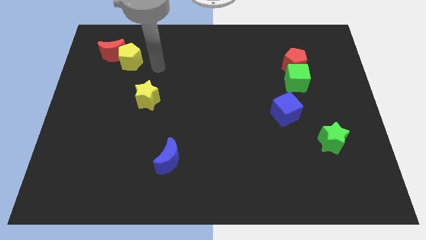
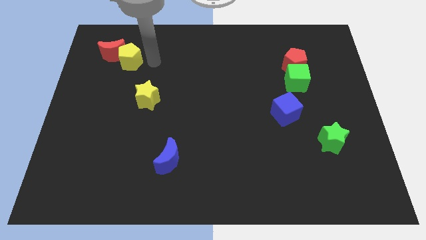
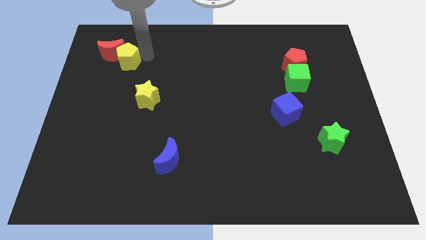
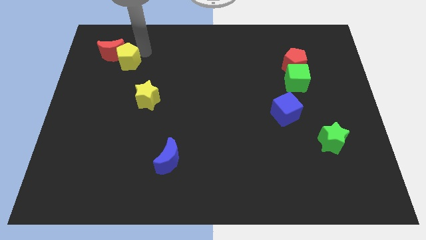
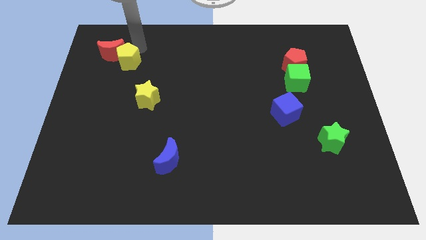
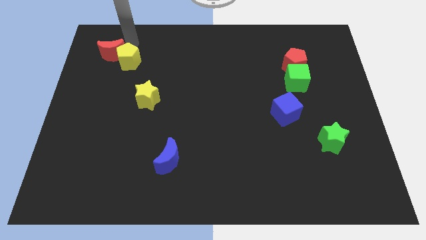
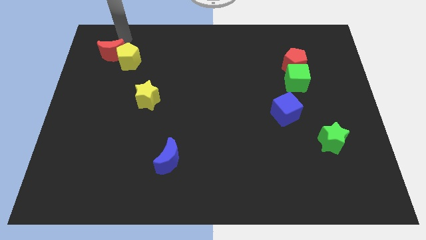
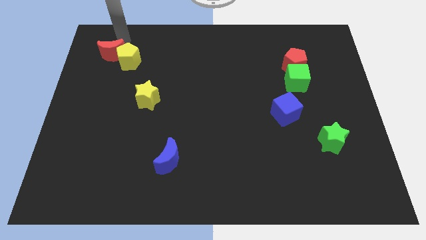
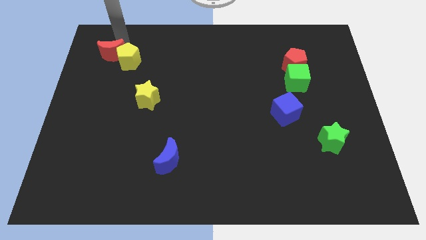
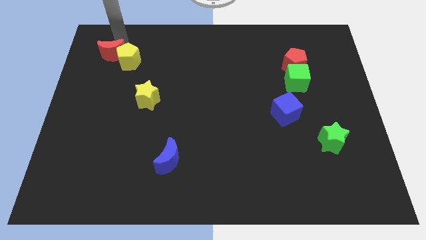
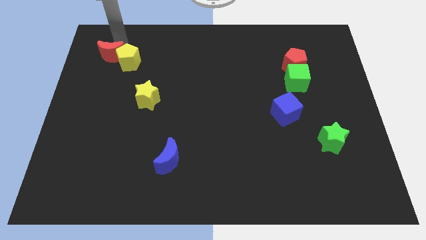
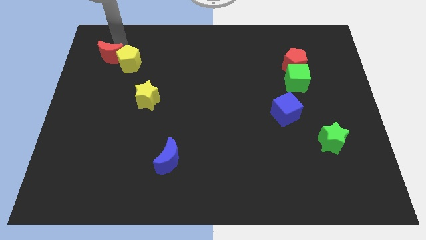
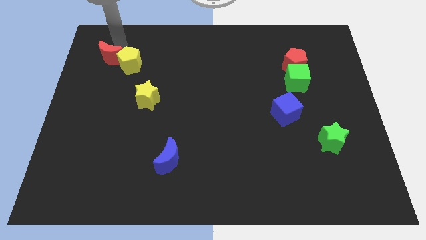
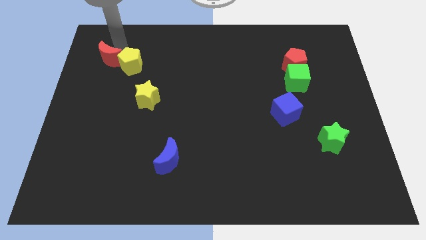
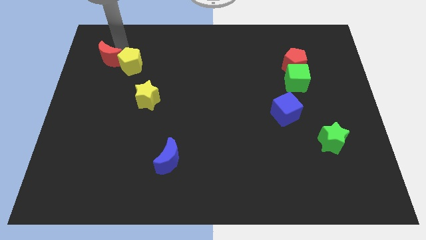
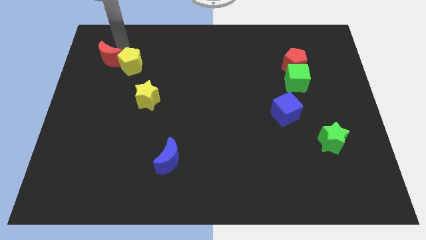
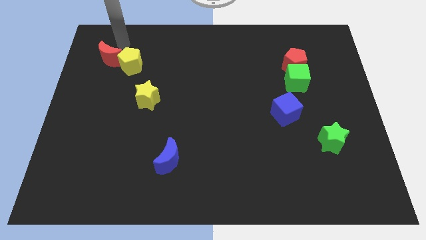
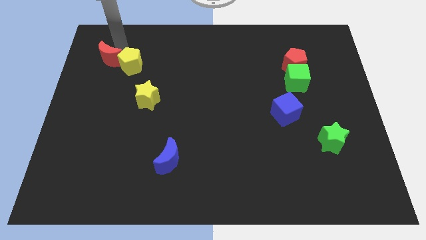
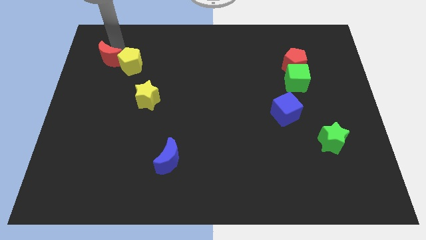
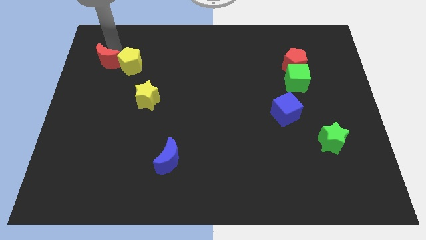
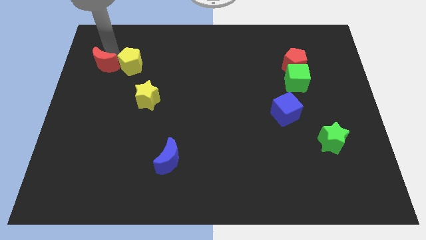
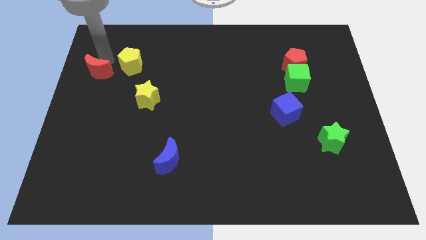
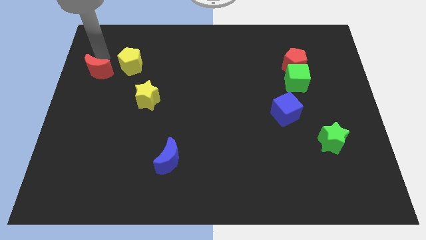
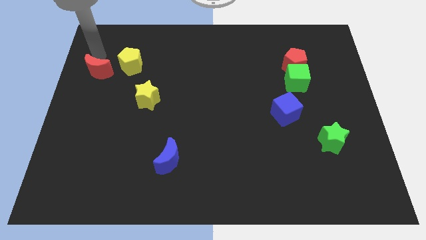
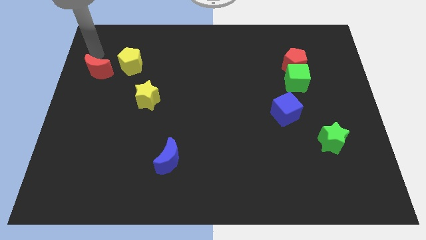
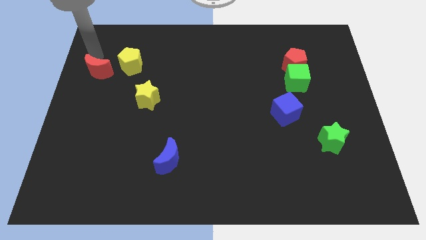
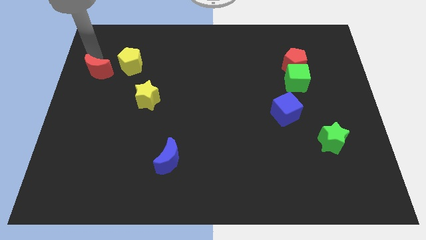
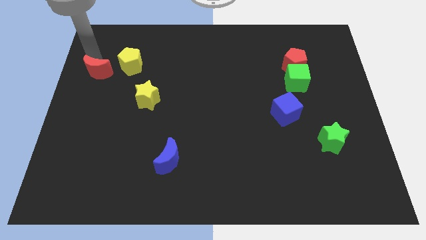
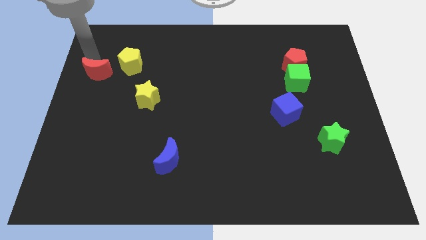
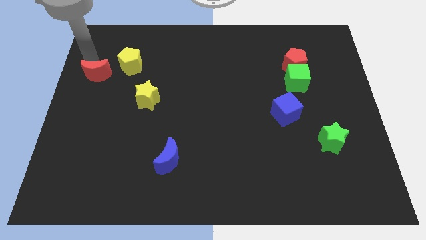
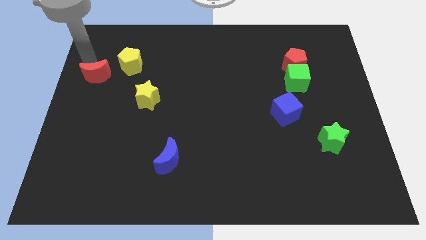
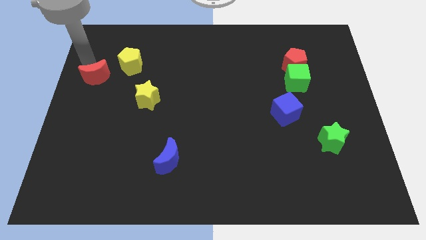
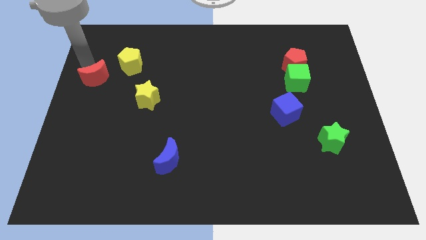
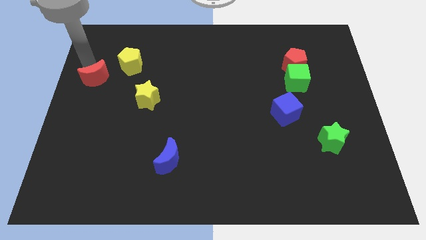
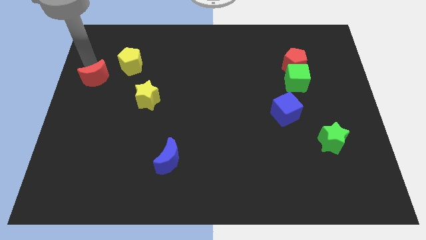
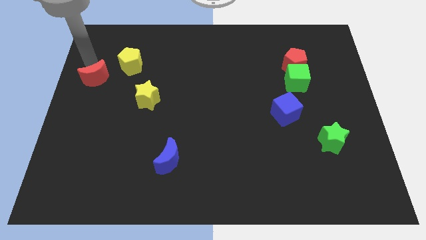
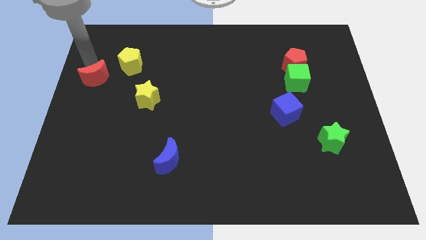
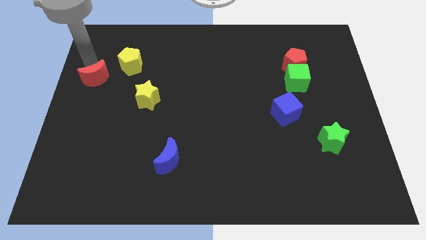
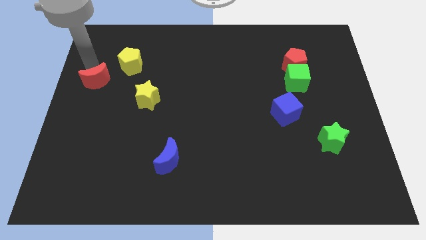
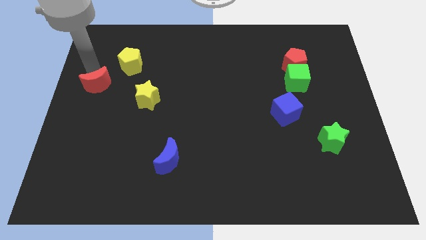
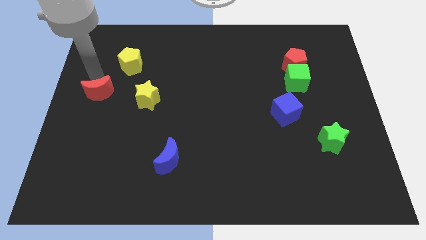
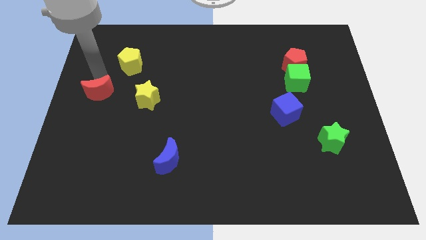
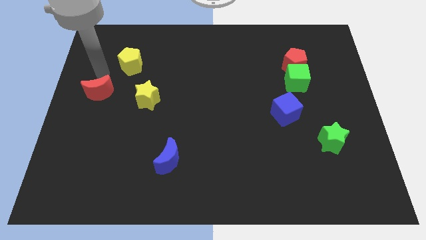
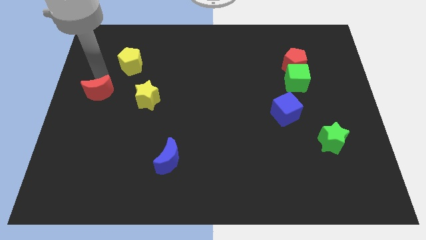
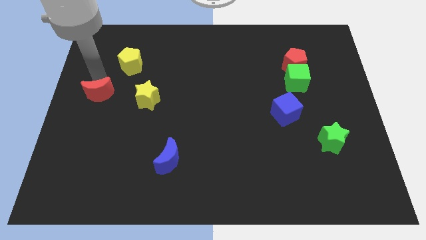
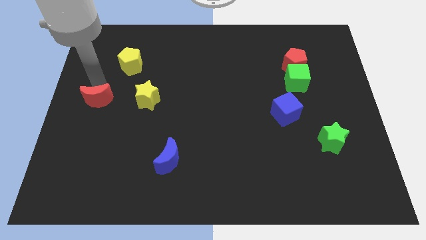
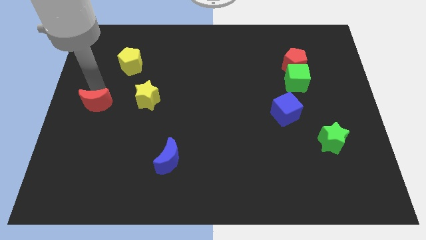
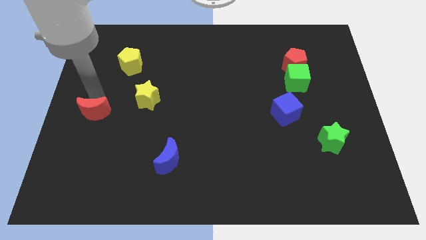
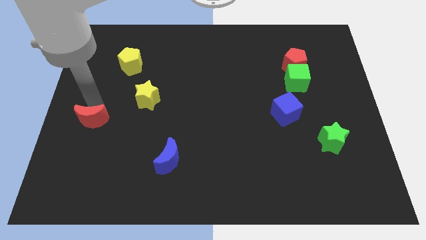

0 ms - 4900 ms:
move the red moon down

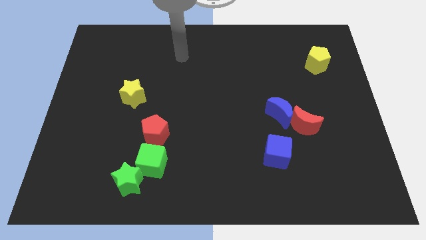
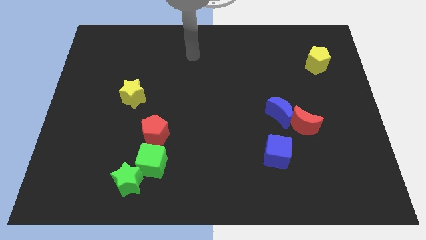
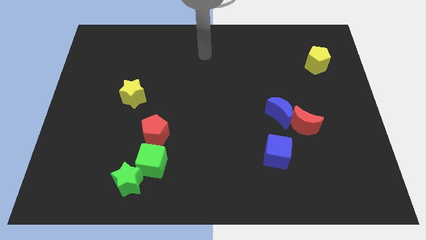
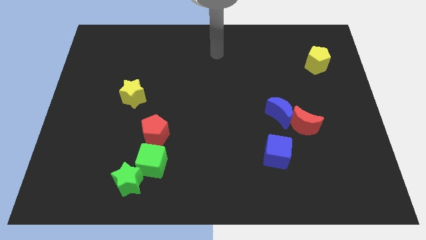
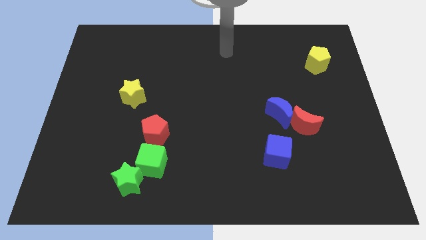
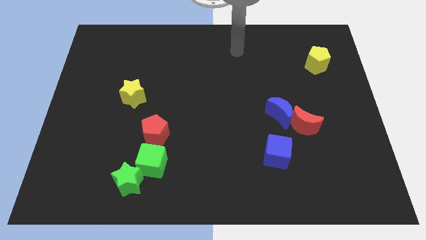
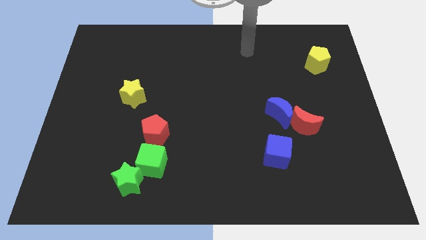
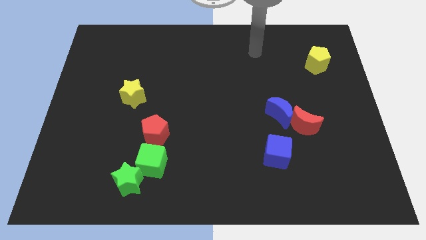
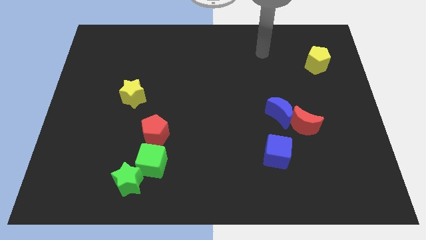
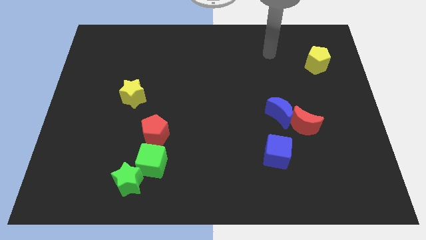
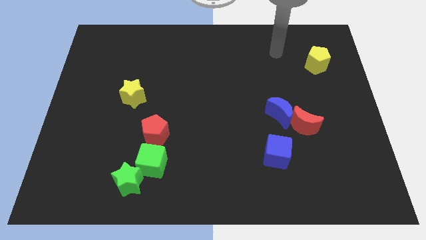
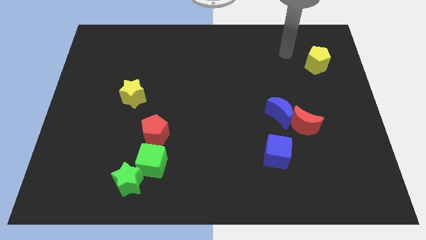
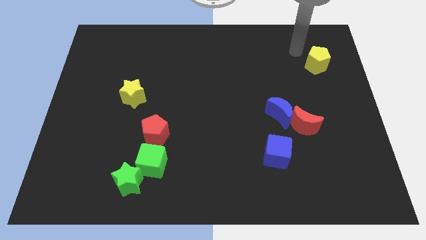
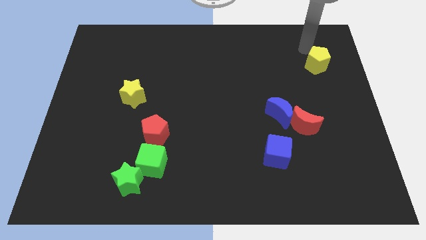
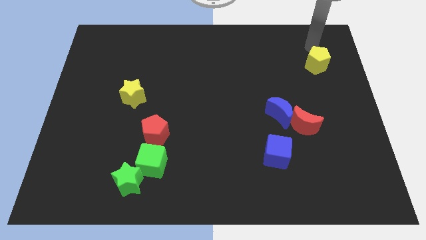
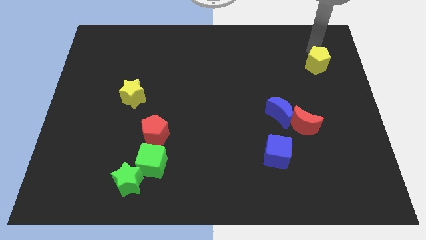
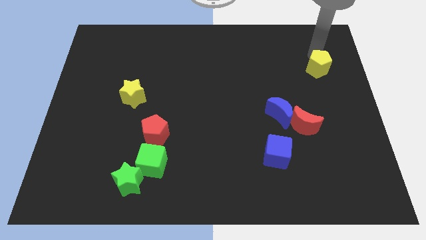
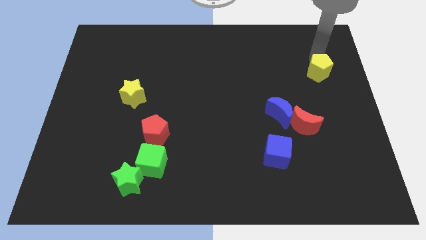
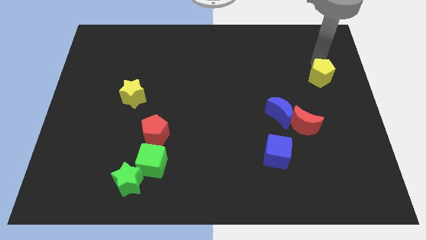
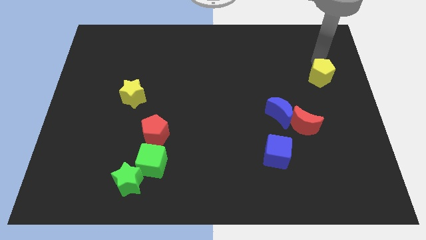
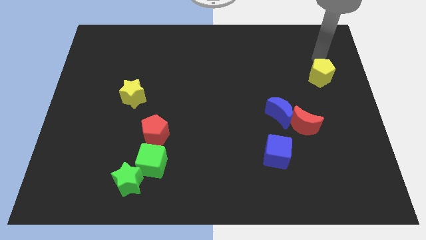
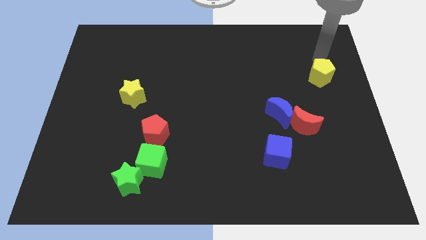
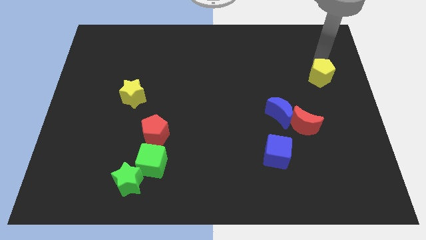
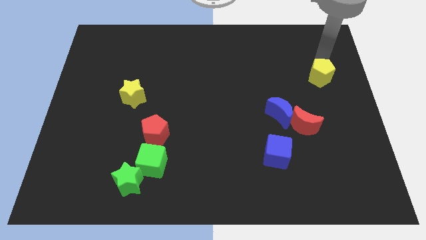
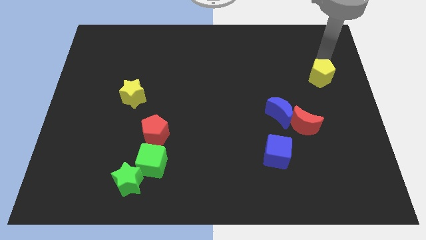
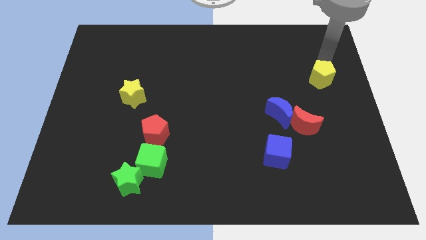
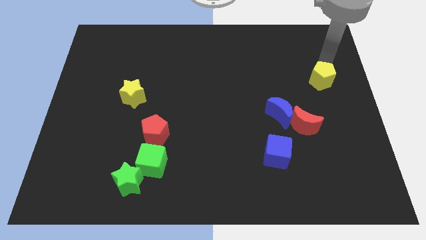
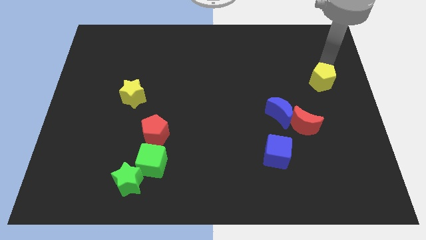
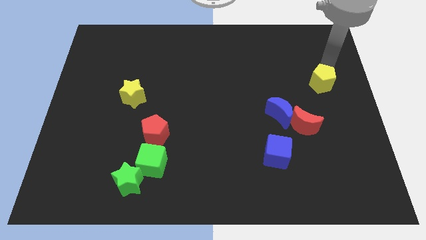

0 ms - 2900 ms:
slightly move the yellow pentagon down

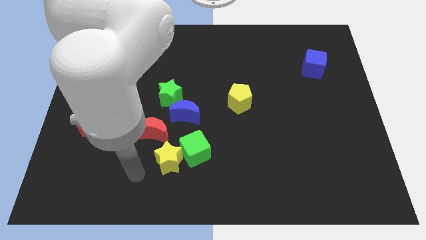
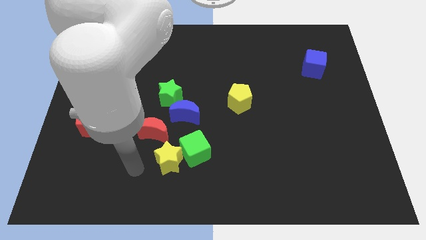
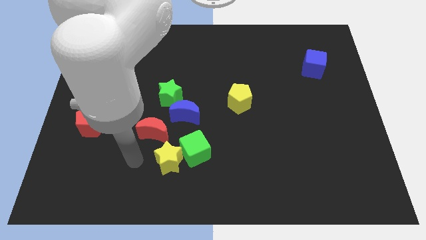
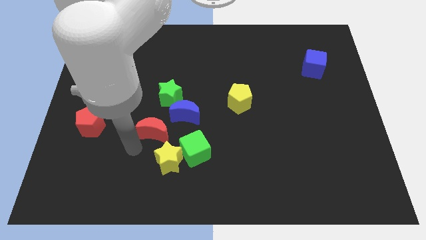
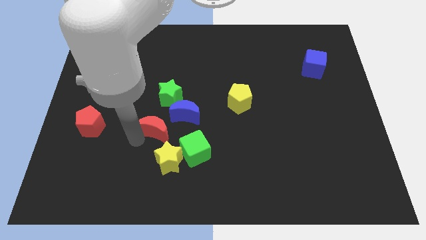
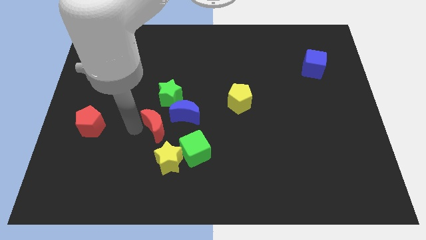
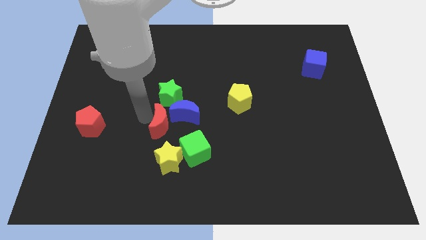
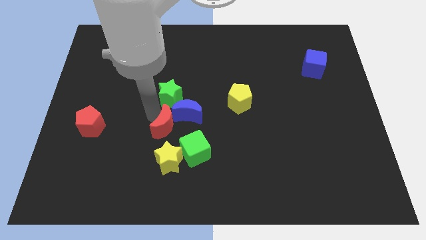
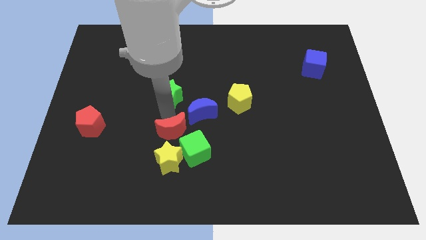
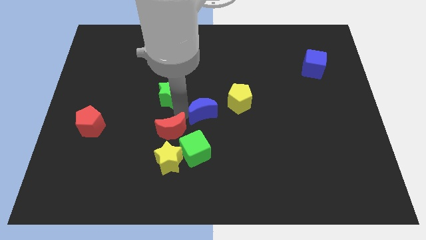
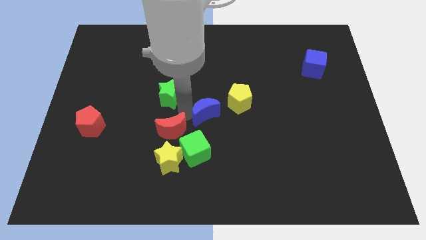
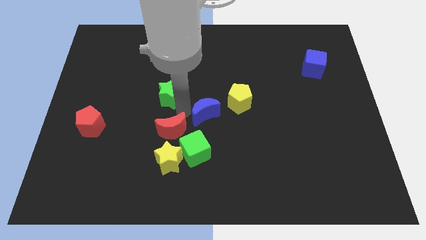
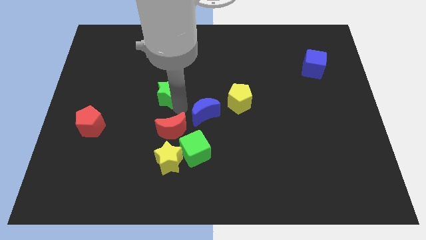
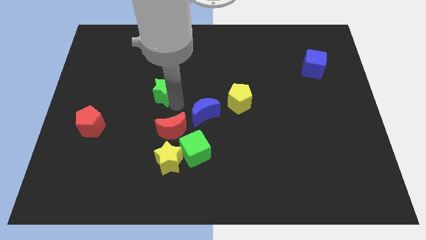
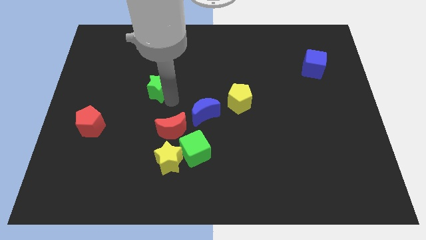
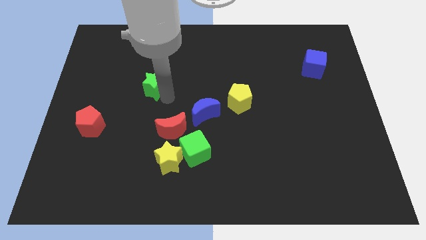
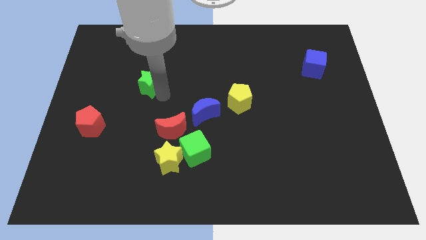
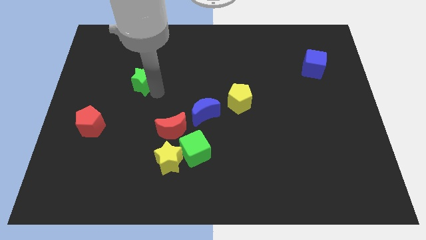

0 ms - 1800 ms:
move the green star a little bit up and then left
